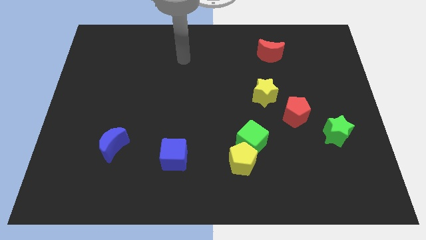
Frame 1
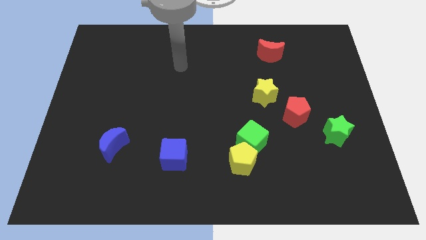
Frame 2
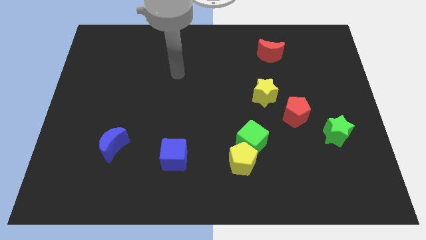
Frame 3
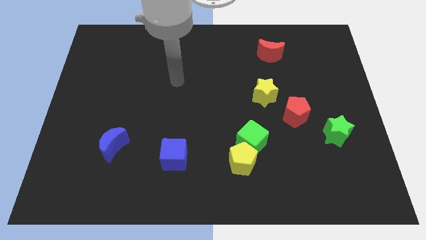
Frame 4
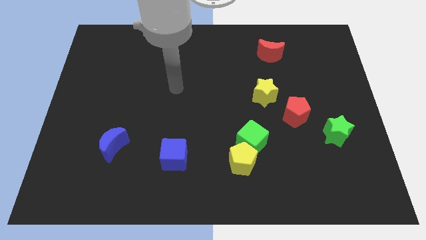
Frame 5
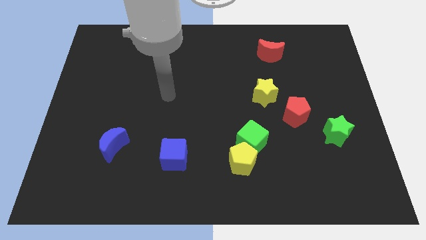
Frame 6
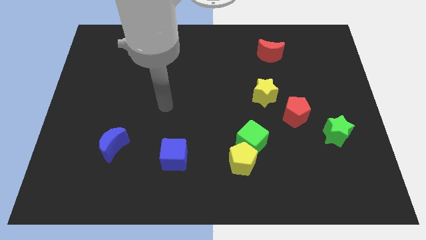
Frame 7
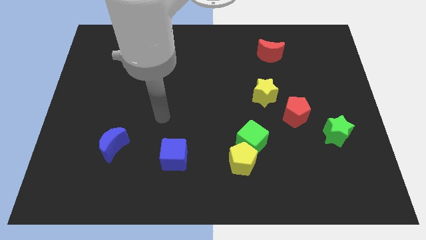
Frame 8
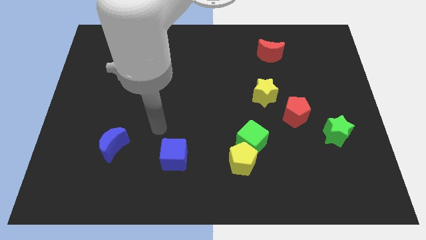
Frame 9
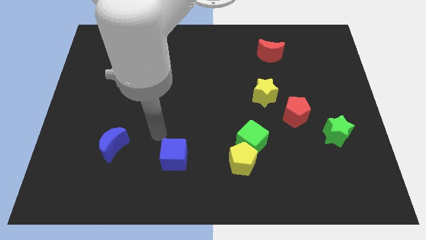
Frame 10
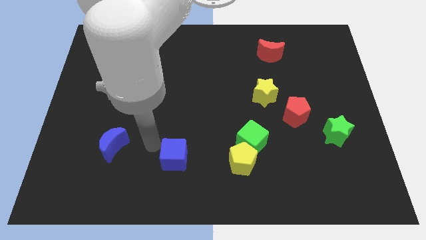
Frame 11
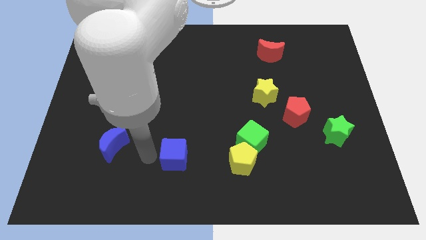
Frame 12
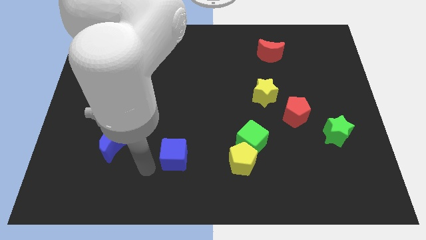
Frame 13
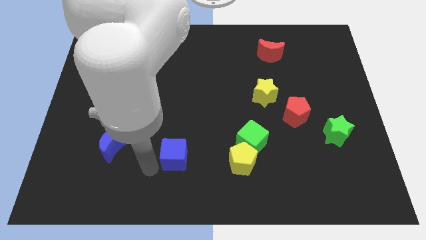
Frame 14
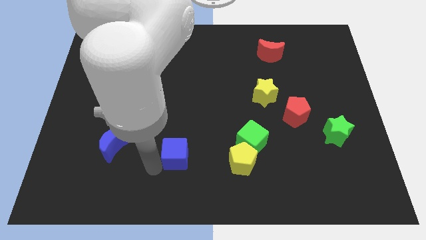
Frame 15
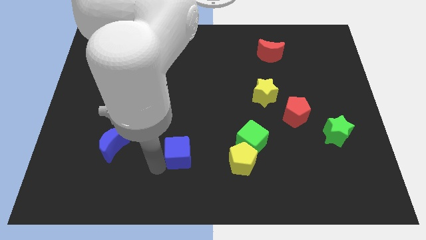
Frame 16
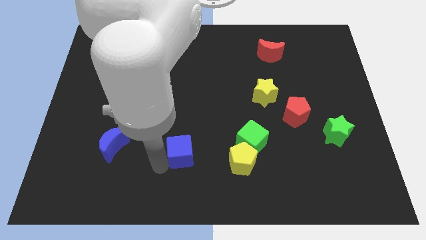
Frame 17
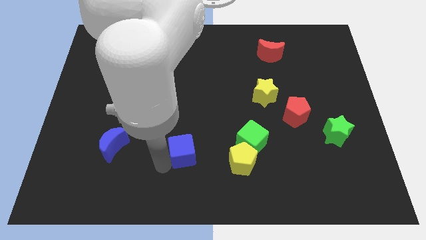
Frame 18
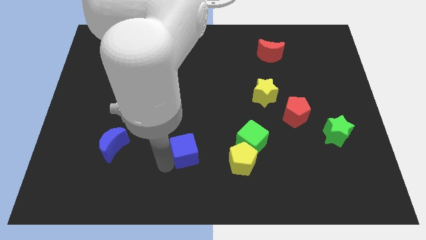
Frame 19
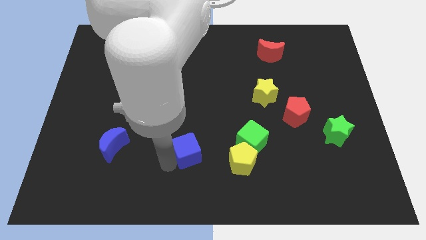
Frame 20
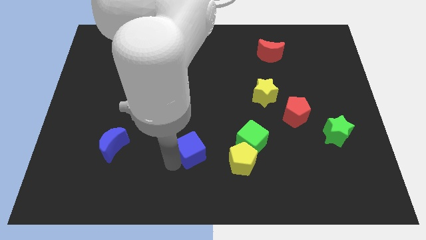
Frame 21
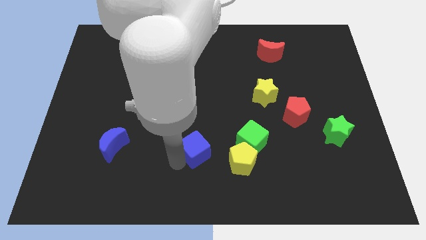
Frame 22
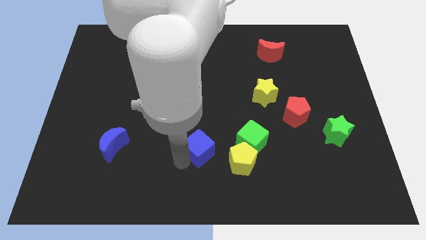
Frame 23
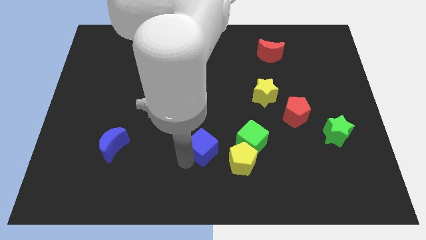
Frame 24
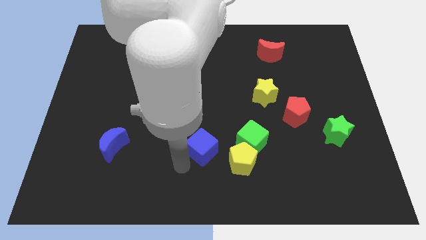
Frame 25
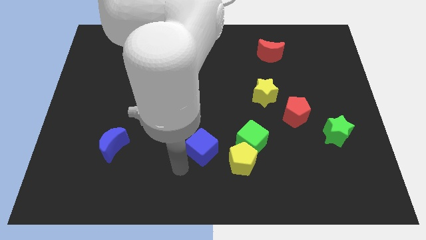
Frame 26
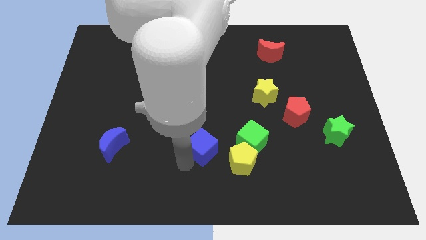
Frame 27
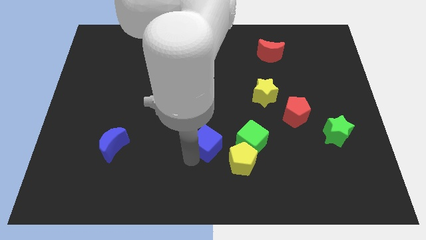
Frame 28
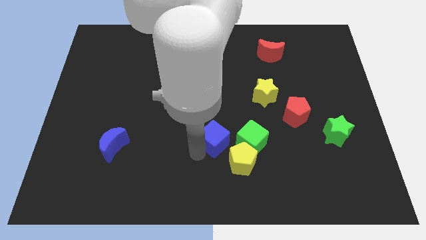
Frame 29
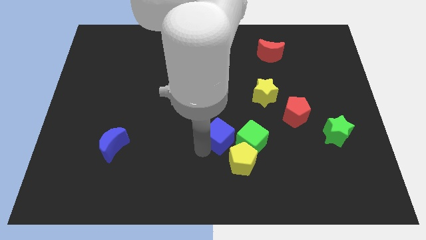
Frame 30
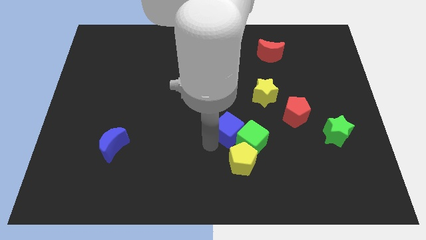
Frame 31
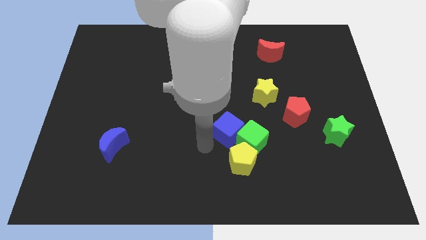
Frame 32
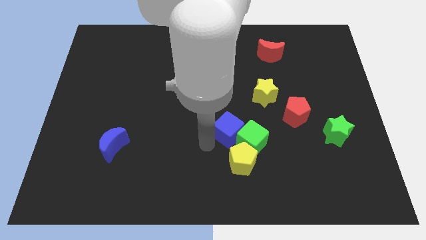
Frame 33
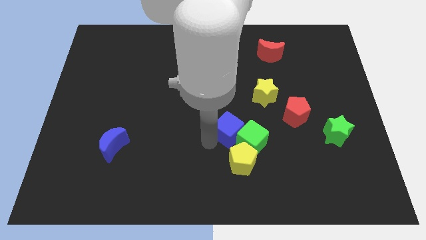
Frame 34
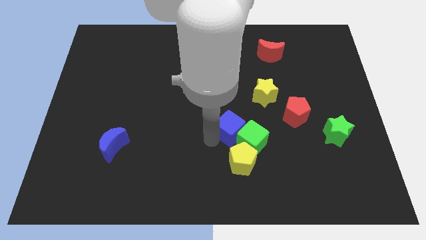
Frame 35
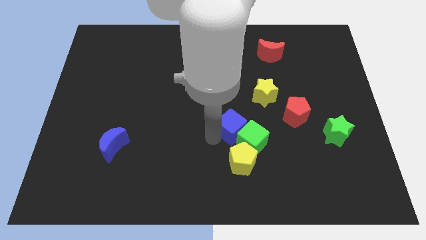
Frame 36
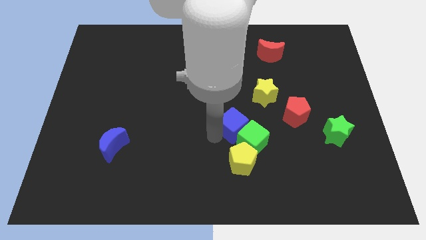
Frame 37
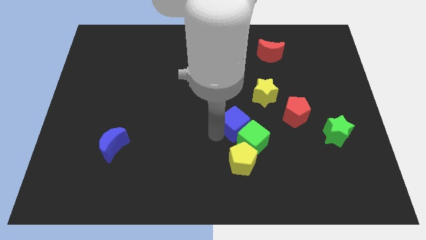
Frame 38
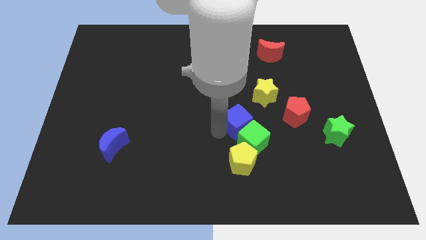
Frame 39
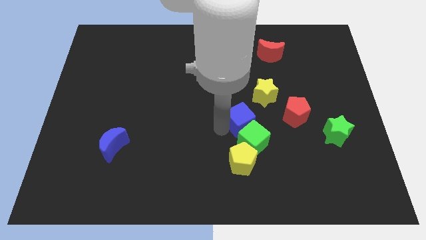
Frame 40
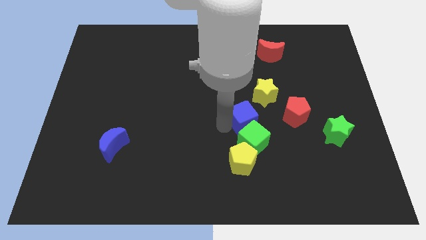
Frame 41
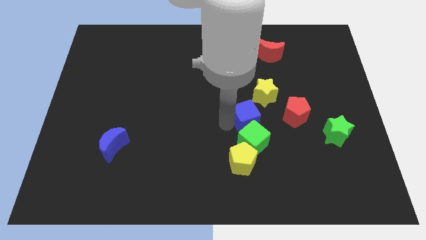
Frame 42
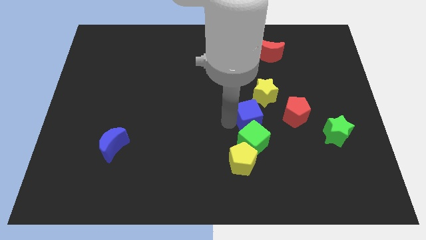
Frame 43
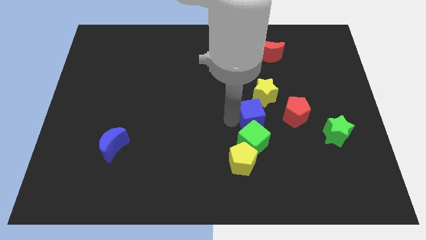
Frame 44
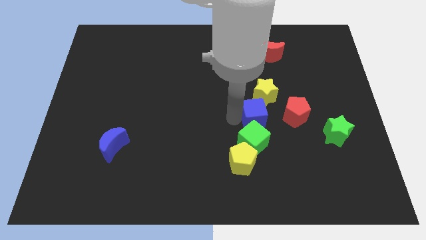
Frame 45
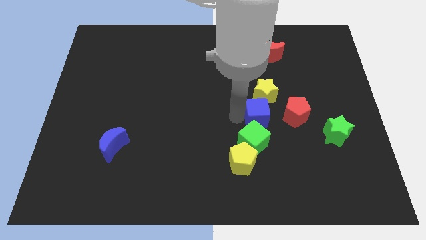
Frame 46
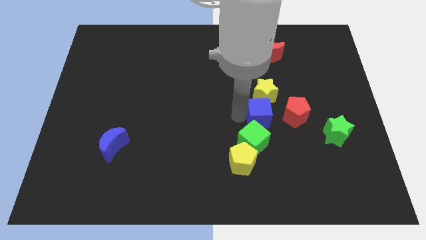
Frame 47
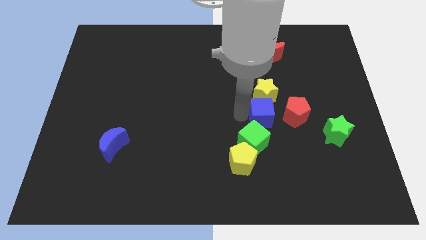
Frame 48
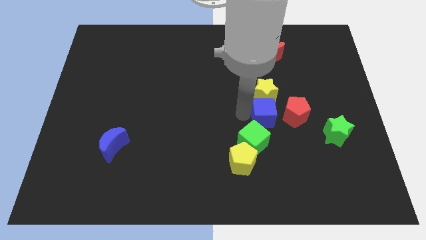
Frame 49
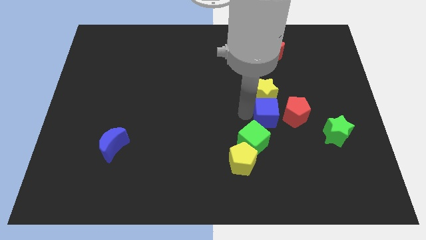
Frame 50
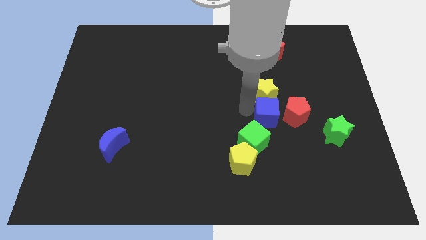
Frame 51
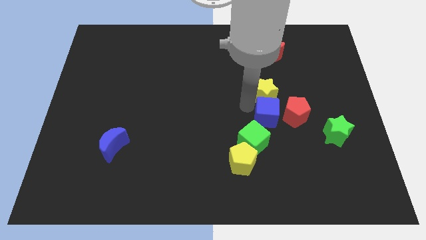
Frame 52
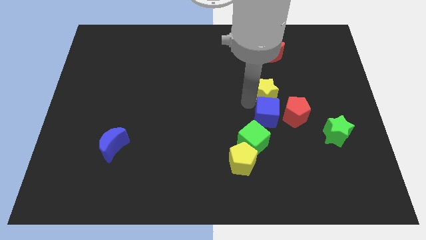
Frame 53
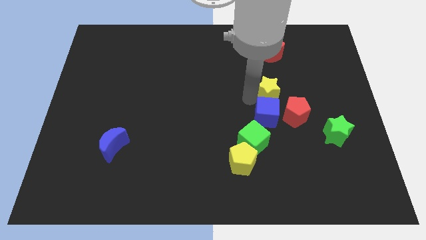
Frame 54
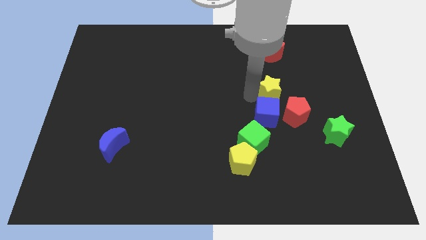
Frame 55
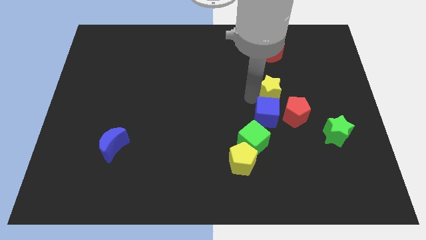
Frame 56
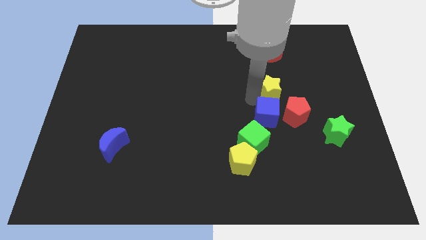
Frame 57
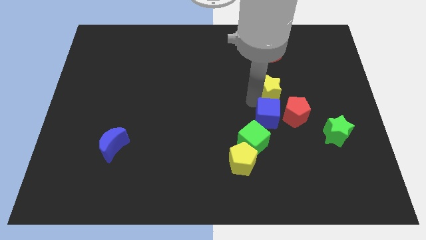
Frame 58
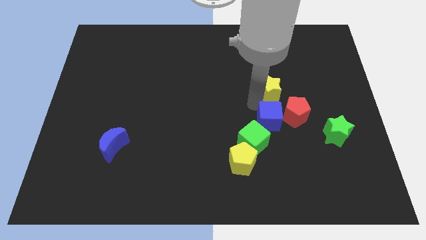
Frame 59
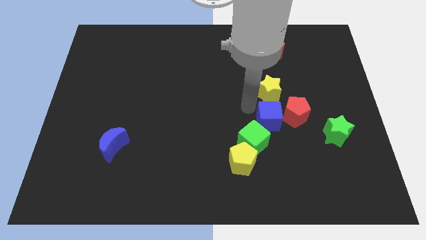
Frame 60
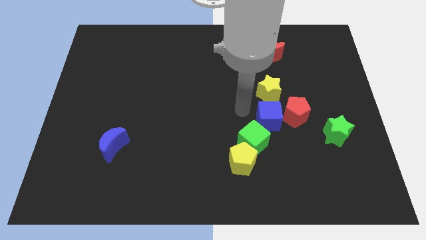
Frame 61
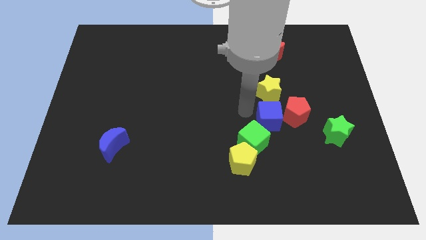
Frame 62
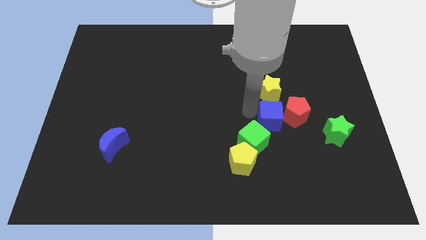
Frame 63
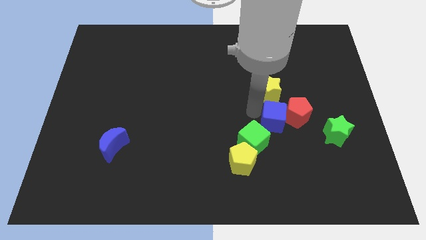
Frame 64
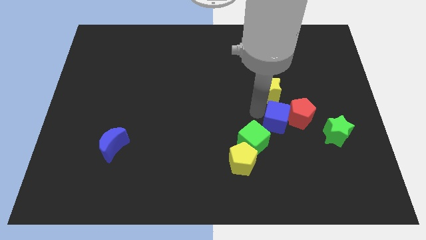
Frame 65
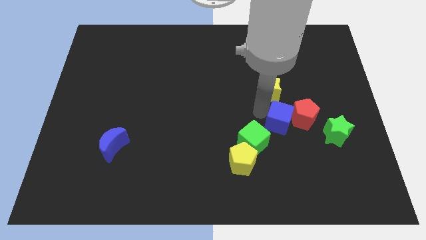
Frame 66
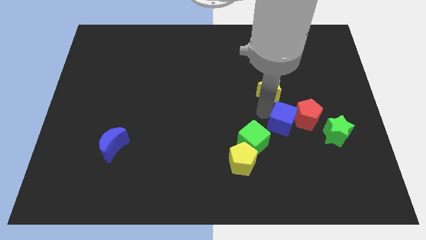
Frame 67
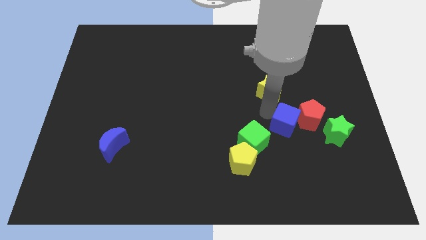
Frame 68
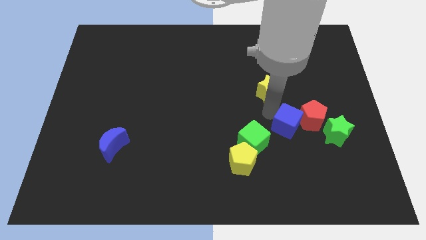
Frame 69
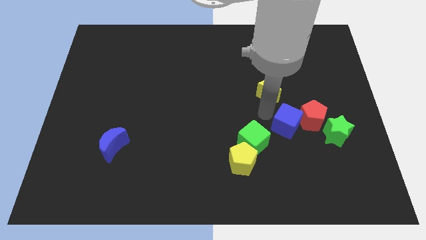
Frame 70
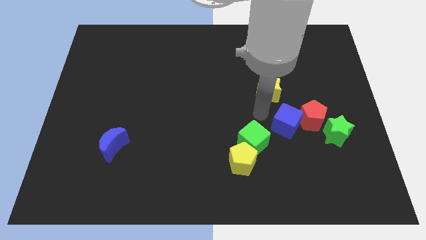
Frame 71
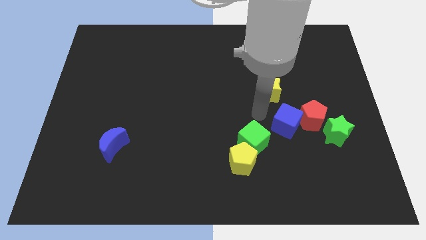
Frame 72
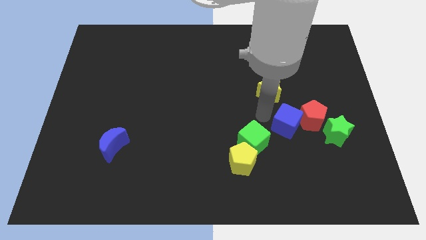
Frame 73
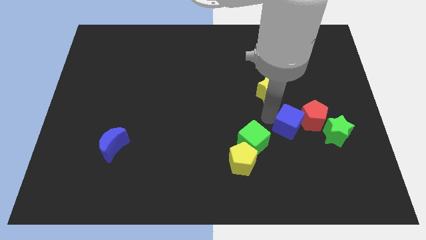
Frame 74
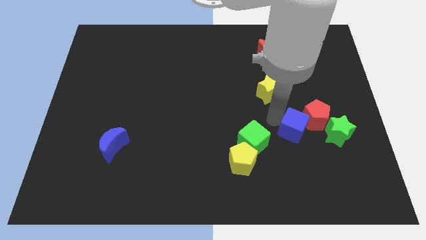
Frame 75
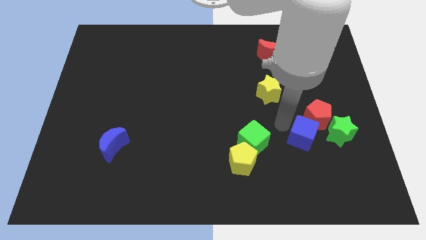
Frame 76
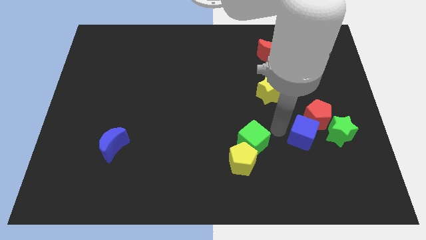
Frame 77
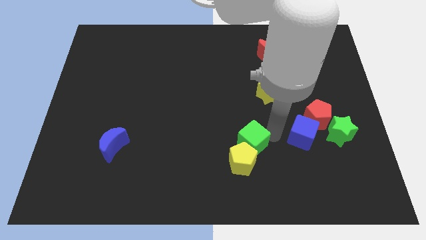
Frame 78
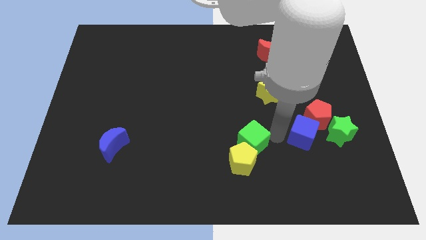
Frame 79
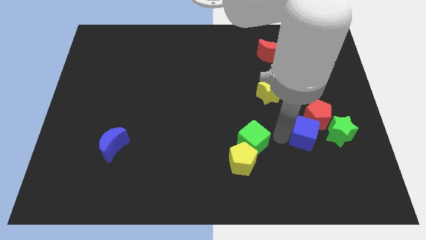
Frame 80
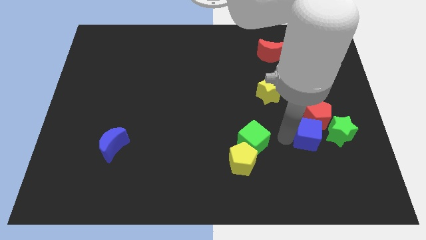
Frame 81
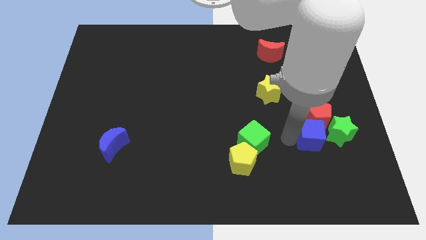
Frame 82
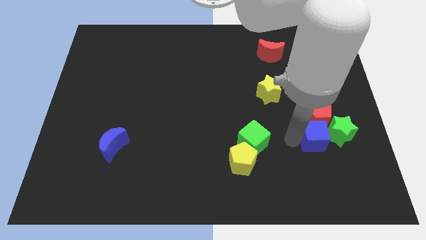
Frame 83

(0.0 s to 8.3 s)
move the blue cube to the green star

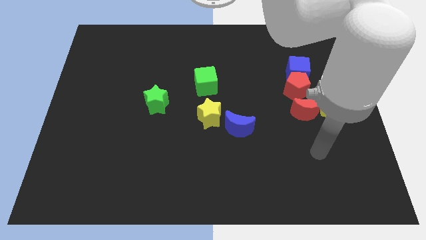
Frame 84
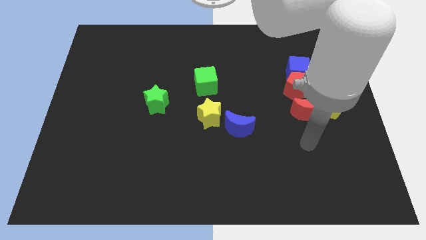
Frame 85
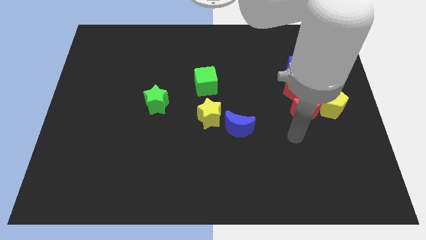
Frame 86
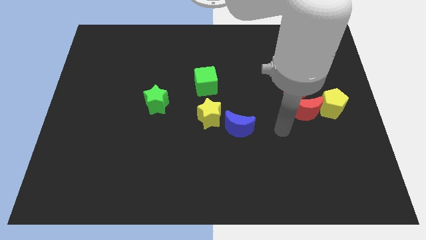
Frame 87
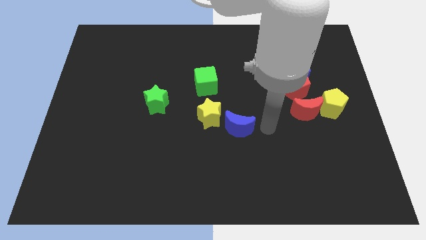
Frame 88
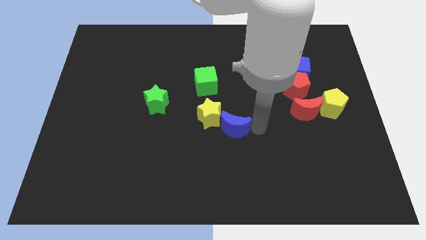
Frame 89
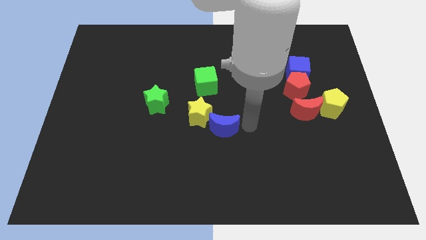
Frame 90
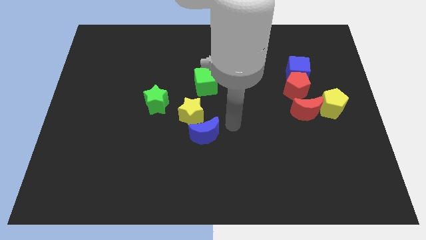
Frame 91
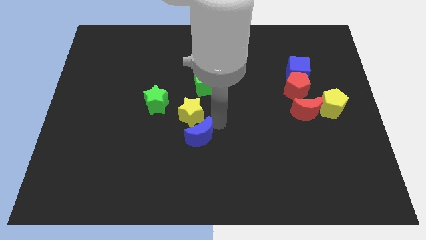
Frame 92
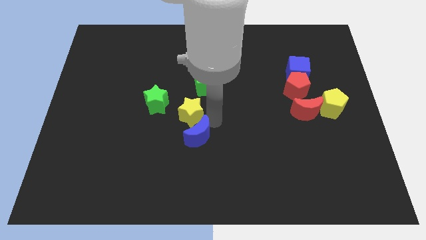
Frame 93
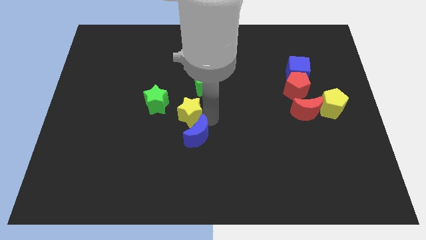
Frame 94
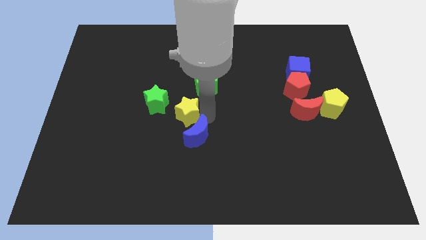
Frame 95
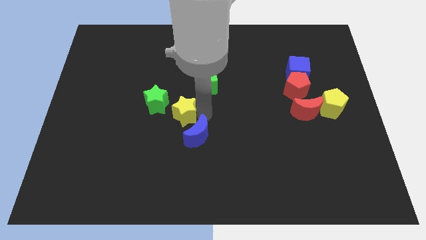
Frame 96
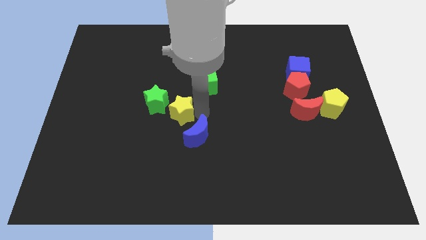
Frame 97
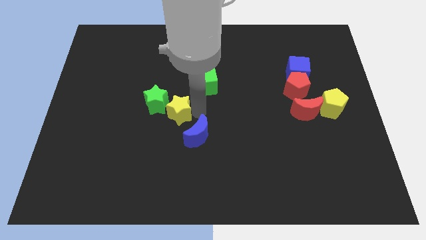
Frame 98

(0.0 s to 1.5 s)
slide the yellow star towards the green star
